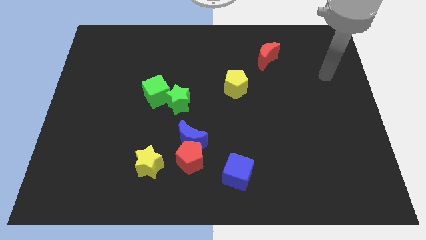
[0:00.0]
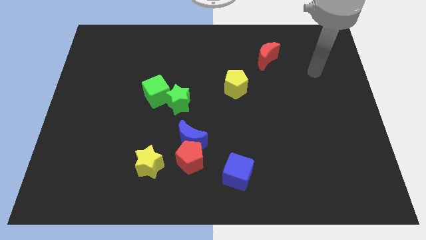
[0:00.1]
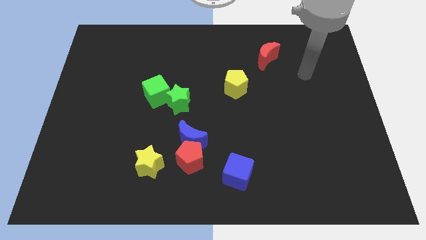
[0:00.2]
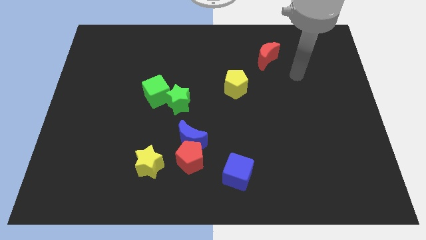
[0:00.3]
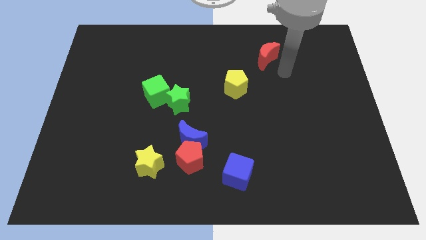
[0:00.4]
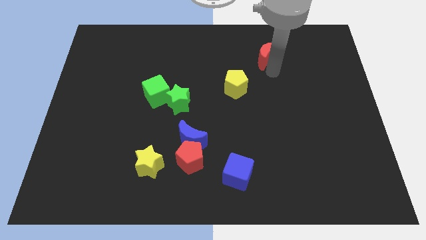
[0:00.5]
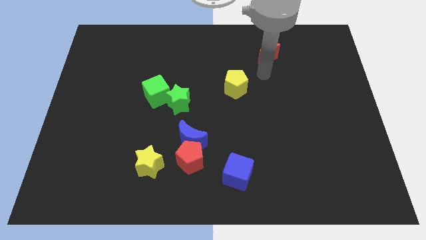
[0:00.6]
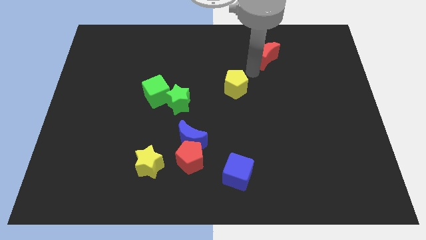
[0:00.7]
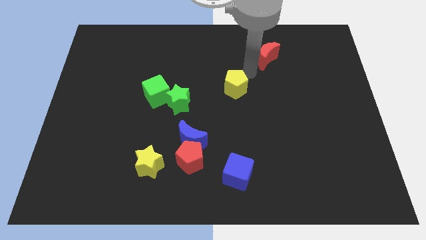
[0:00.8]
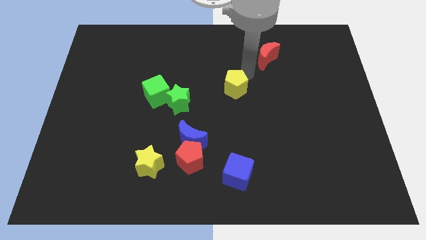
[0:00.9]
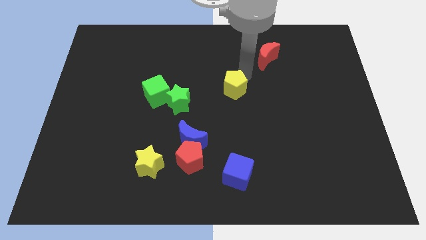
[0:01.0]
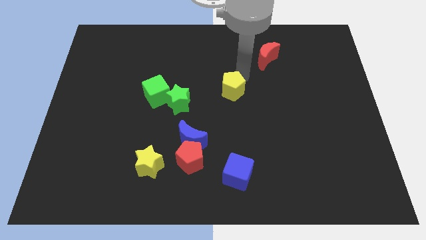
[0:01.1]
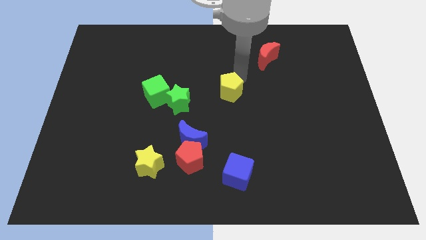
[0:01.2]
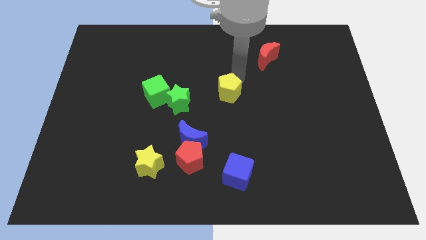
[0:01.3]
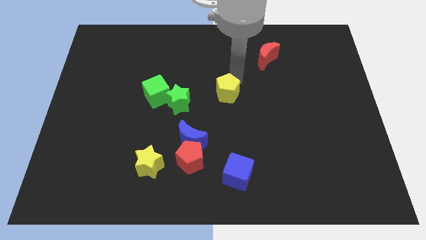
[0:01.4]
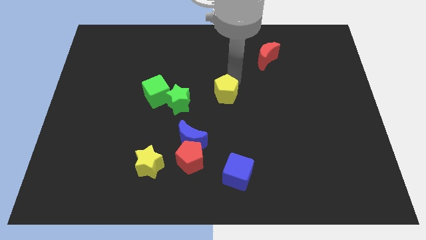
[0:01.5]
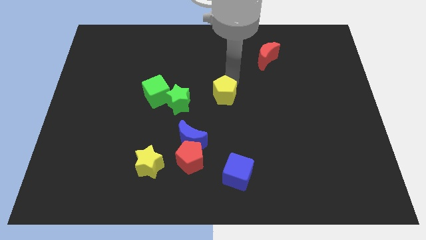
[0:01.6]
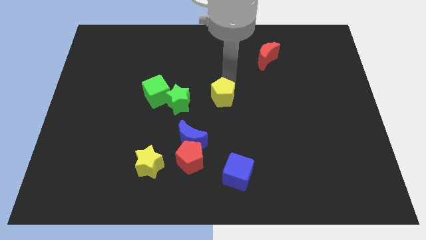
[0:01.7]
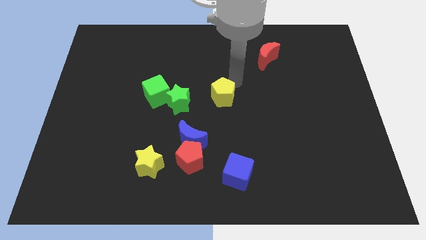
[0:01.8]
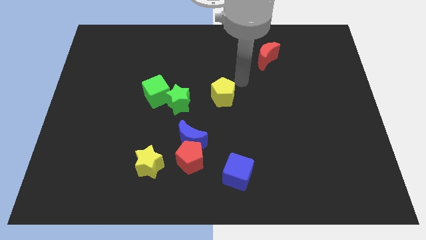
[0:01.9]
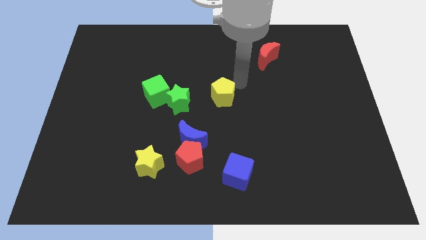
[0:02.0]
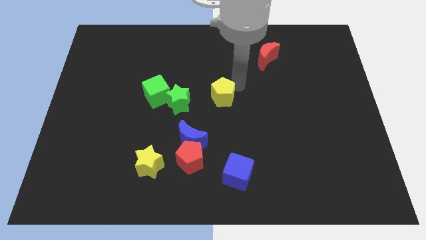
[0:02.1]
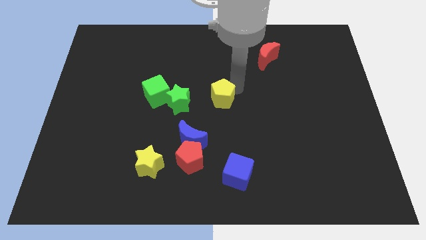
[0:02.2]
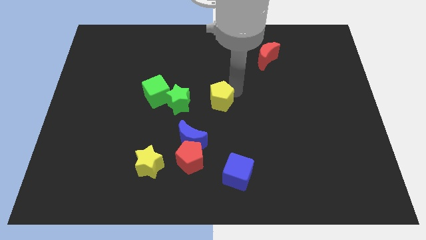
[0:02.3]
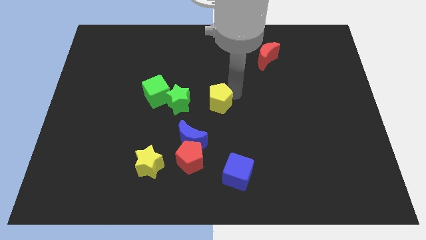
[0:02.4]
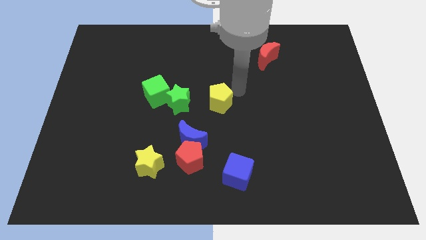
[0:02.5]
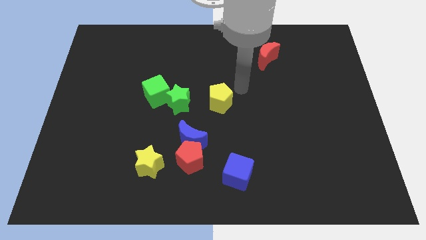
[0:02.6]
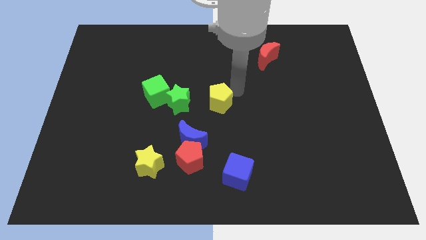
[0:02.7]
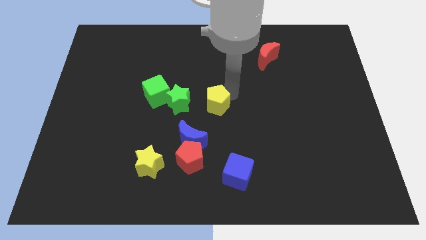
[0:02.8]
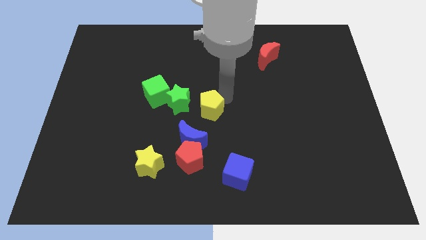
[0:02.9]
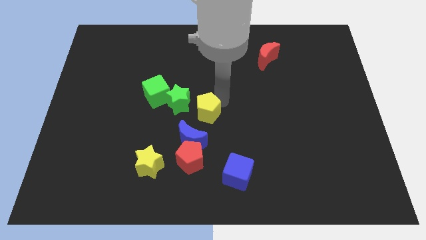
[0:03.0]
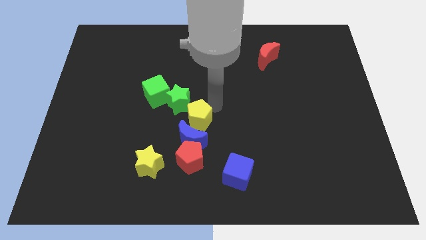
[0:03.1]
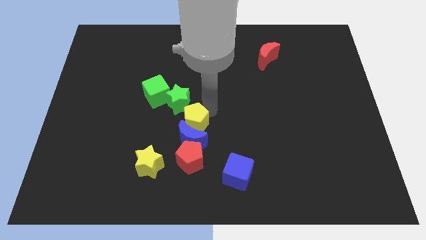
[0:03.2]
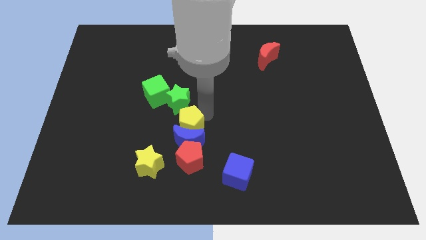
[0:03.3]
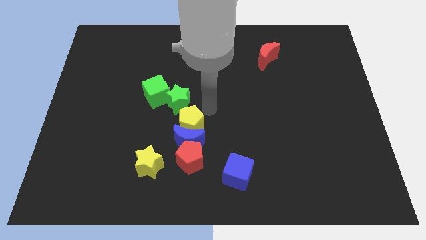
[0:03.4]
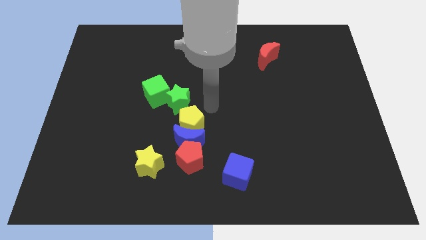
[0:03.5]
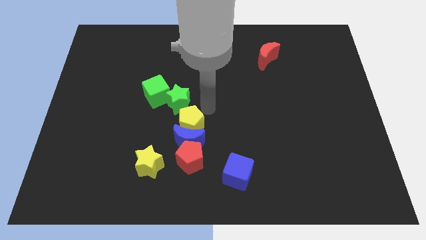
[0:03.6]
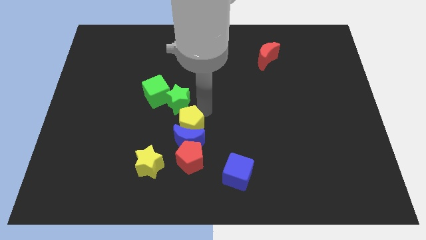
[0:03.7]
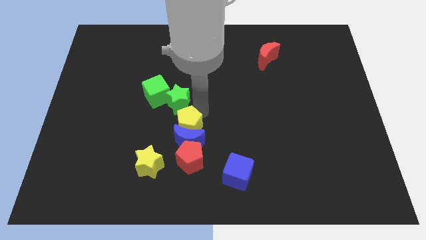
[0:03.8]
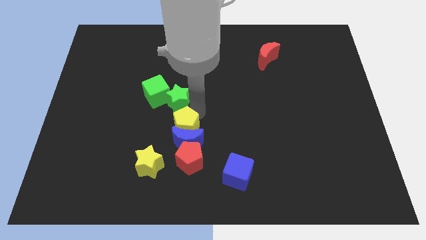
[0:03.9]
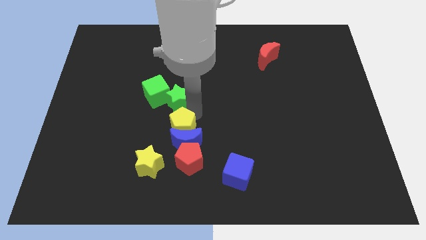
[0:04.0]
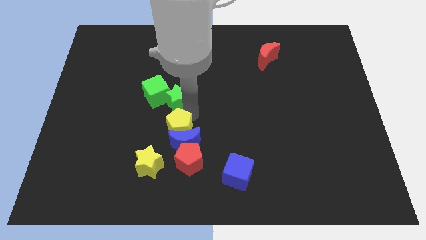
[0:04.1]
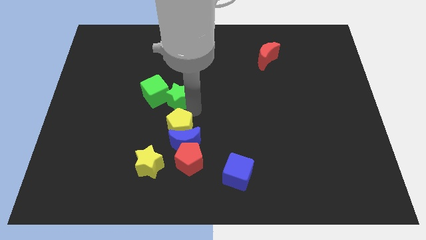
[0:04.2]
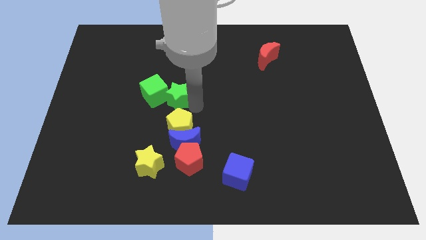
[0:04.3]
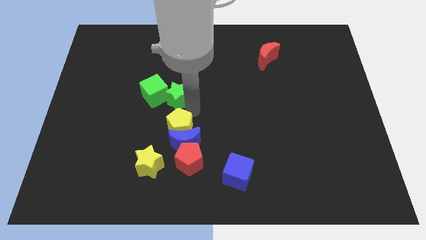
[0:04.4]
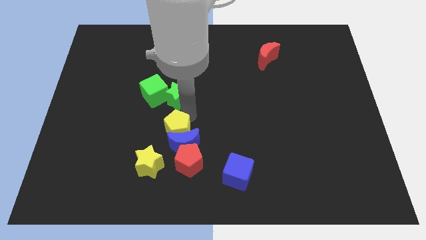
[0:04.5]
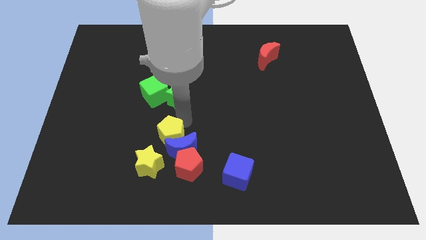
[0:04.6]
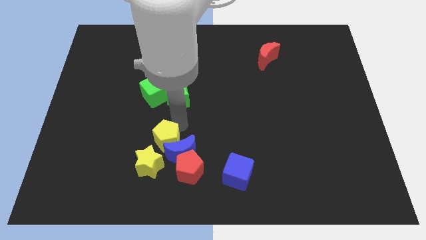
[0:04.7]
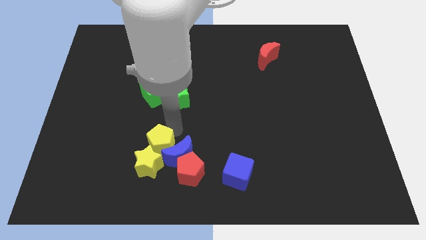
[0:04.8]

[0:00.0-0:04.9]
push the yellow pentagon to the yellow star

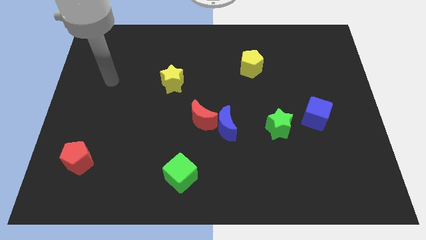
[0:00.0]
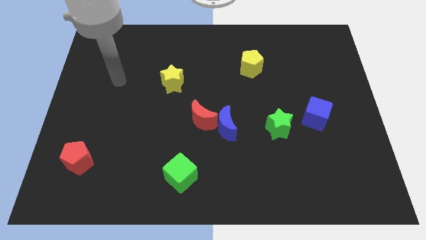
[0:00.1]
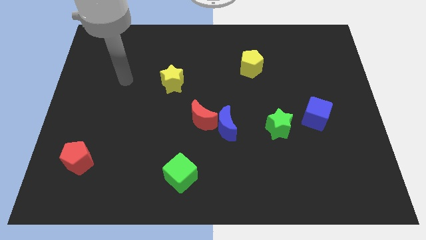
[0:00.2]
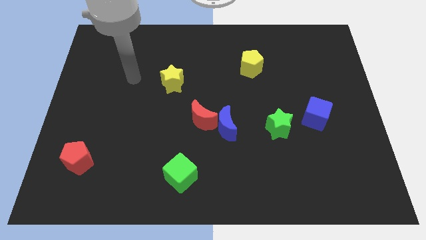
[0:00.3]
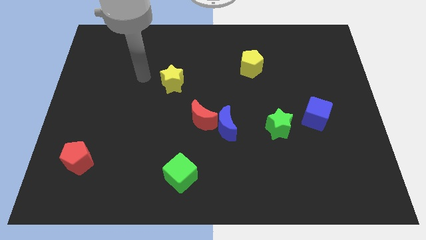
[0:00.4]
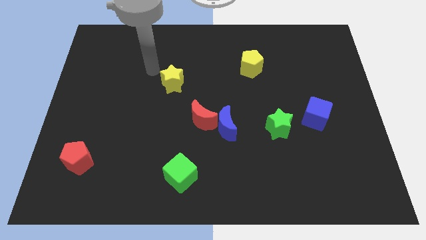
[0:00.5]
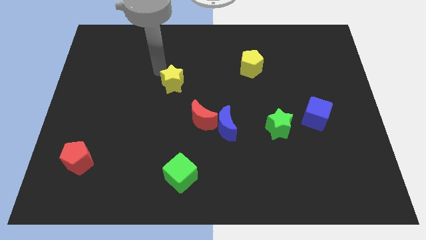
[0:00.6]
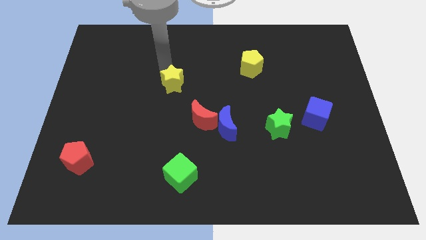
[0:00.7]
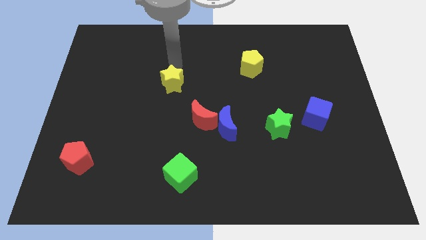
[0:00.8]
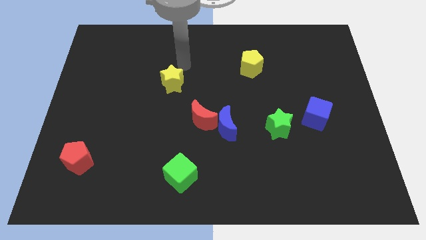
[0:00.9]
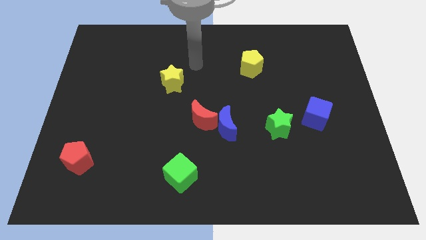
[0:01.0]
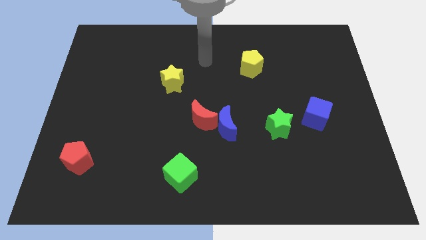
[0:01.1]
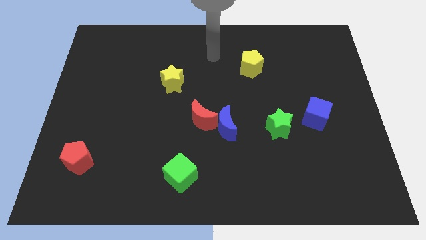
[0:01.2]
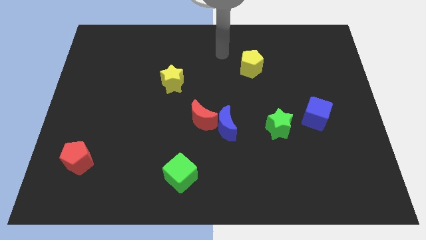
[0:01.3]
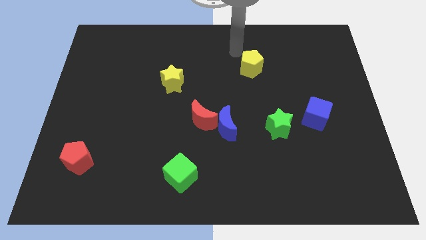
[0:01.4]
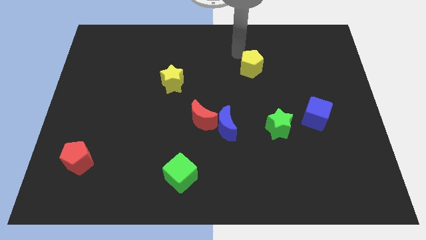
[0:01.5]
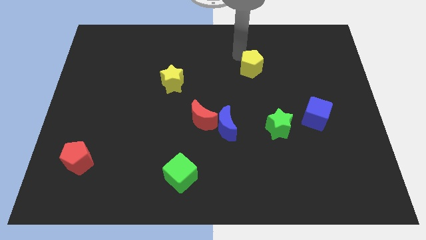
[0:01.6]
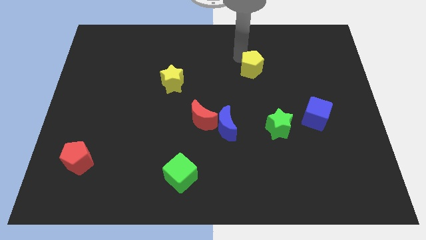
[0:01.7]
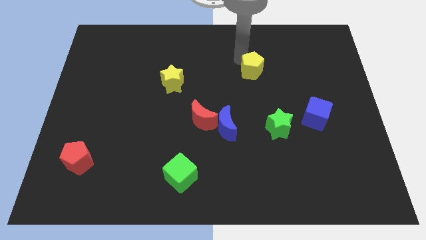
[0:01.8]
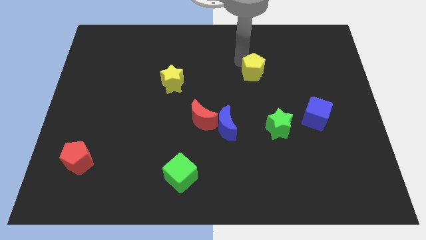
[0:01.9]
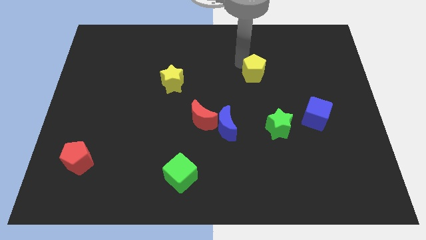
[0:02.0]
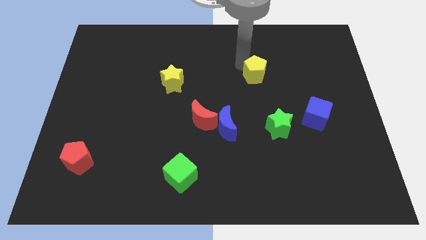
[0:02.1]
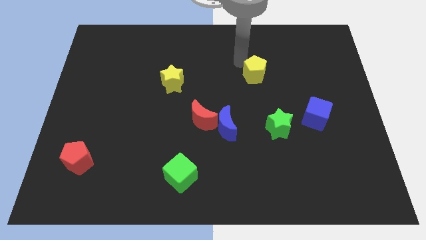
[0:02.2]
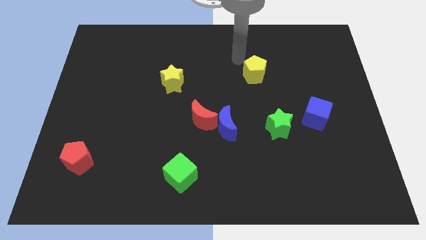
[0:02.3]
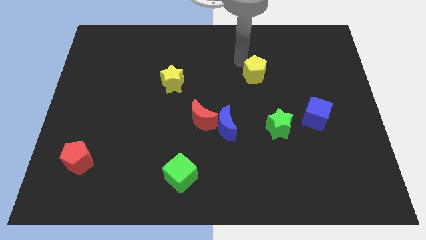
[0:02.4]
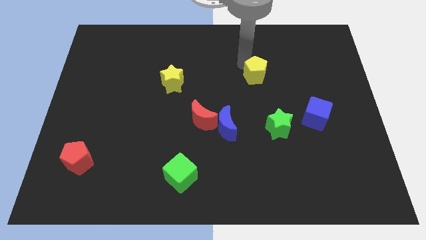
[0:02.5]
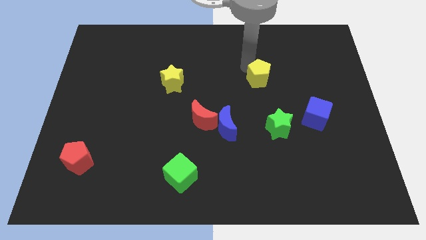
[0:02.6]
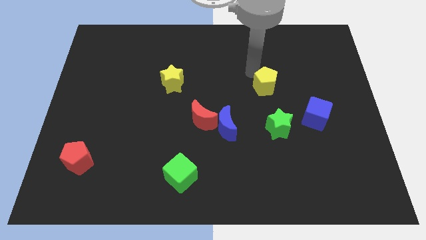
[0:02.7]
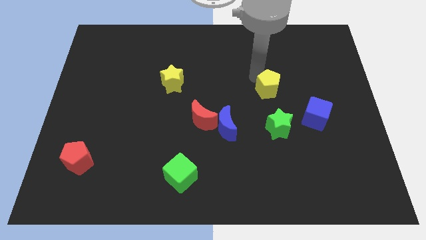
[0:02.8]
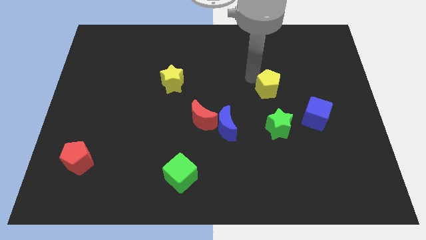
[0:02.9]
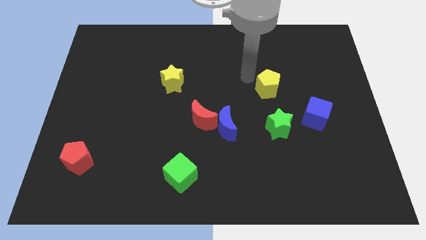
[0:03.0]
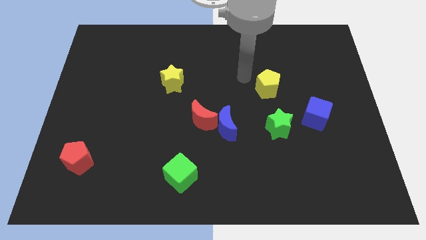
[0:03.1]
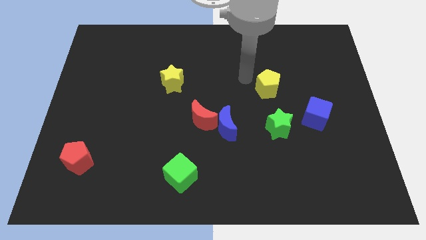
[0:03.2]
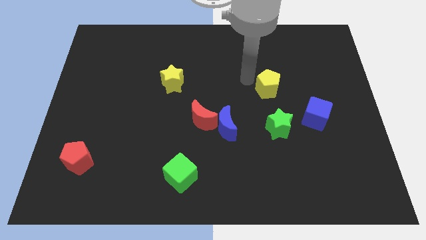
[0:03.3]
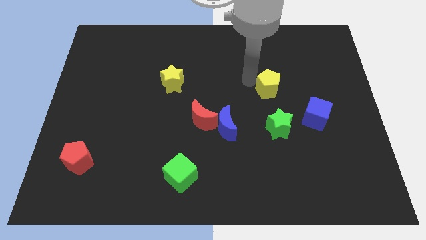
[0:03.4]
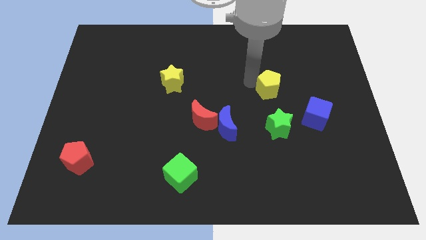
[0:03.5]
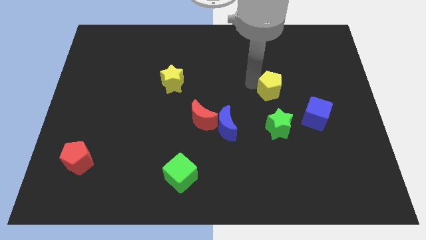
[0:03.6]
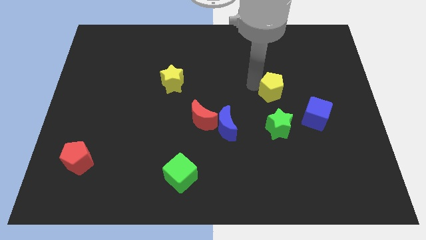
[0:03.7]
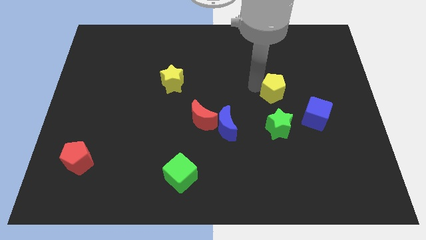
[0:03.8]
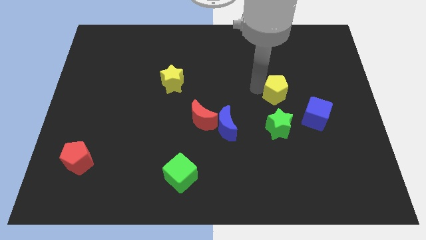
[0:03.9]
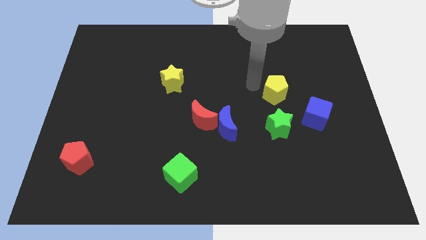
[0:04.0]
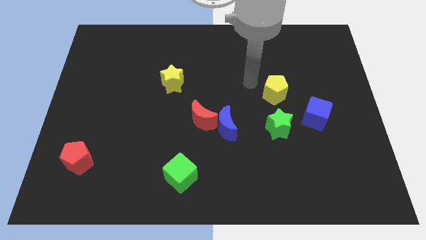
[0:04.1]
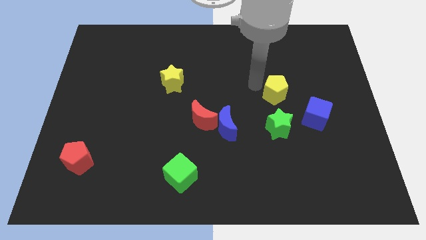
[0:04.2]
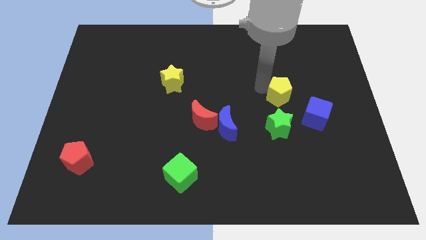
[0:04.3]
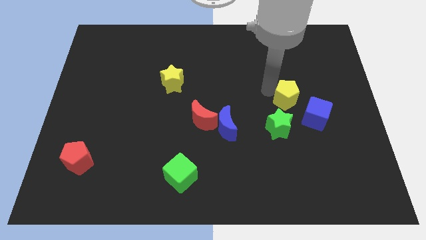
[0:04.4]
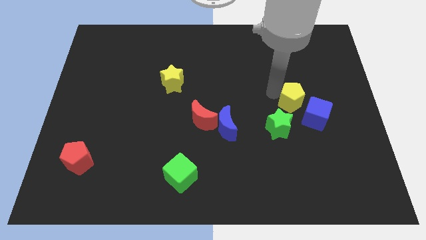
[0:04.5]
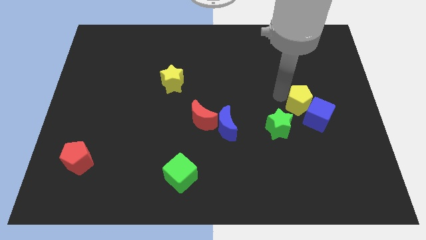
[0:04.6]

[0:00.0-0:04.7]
slide the yellow pentagon to the blue cube
